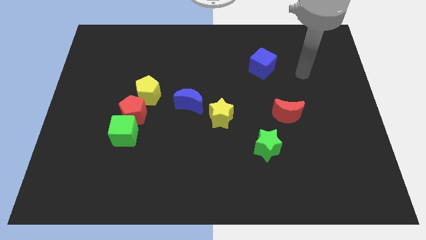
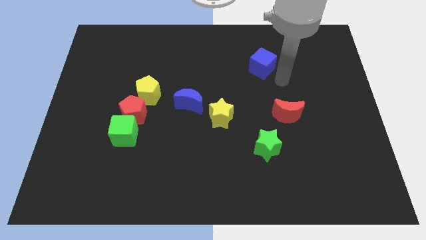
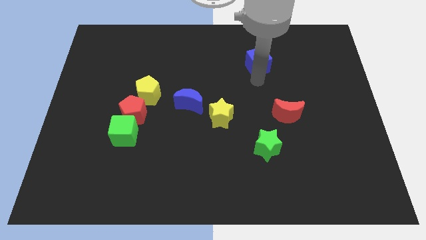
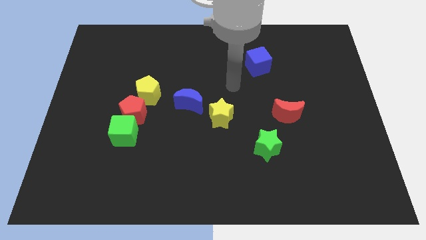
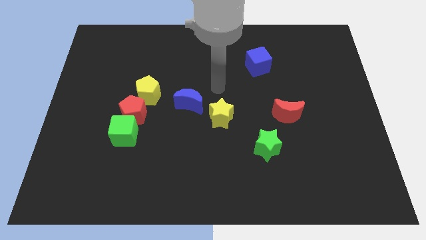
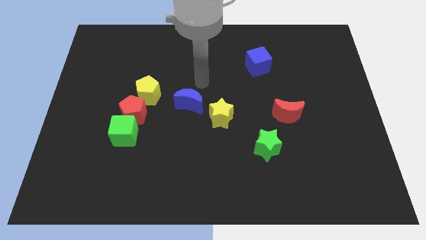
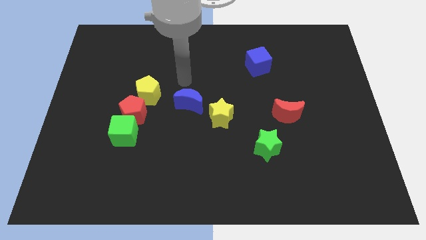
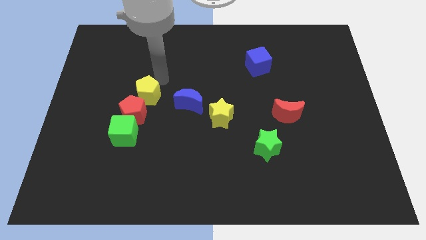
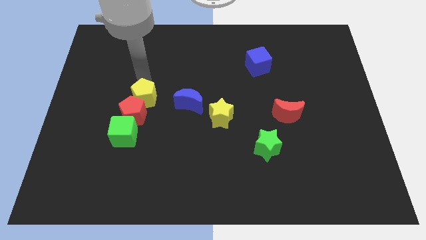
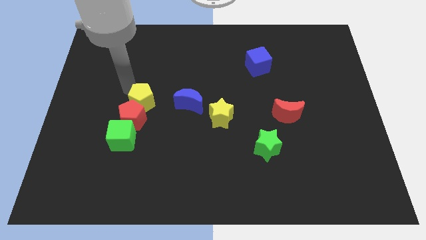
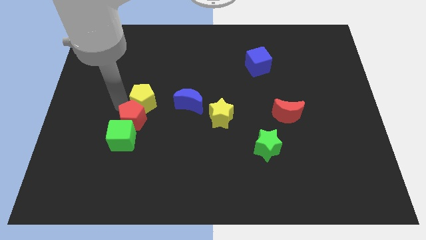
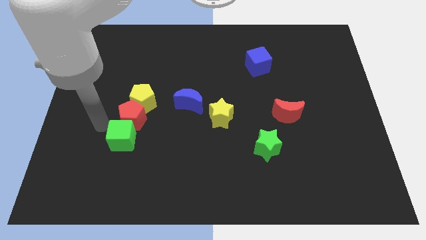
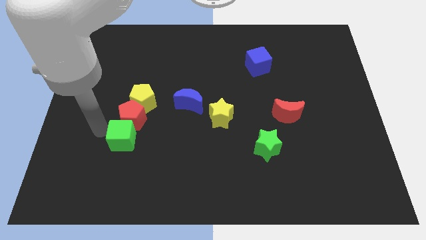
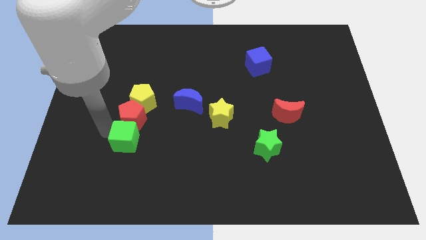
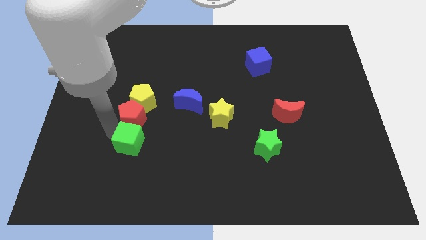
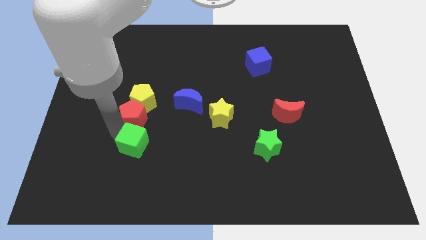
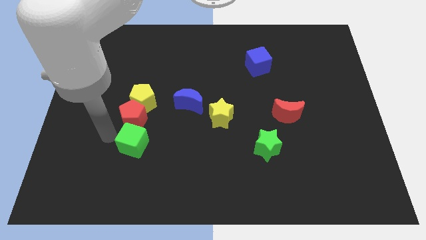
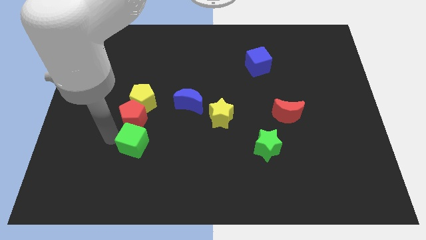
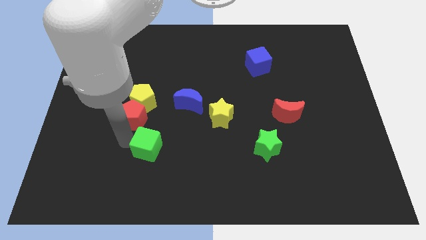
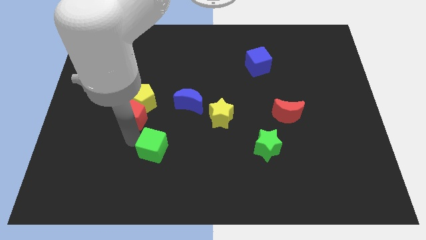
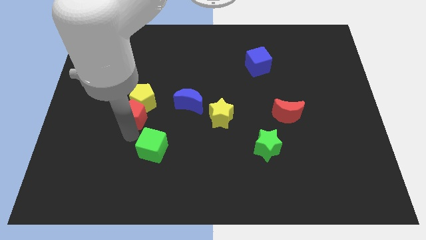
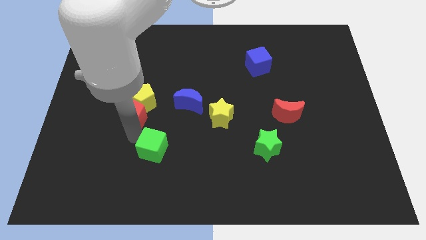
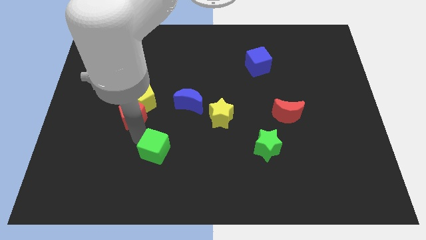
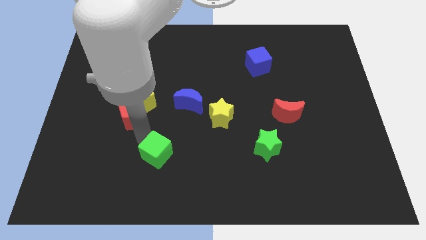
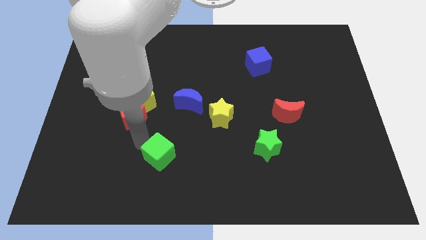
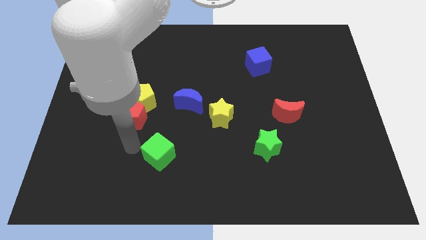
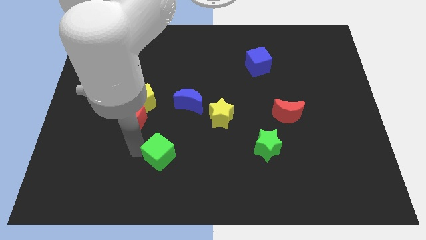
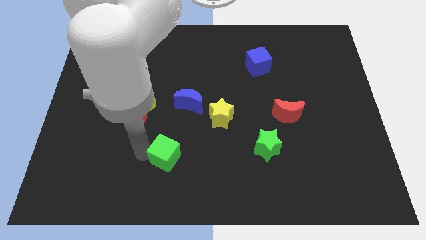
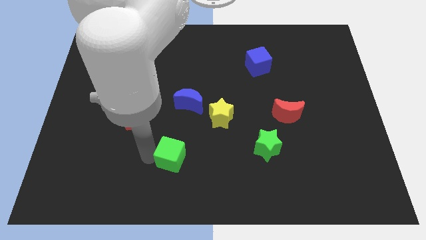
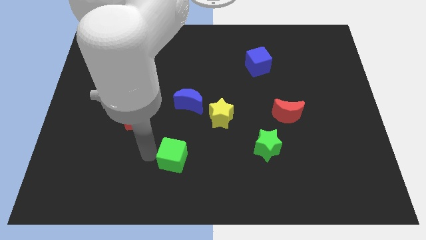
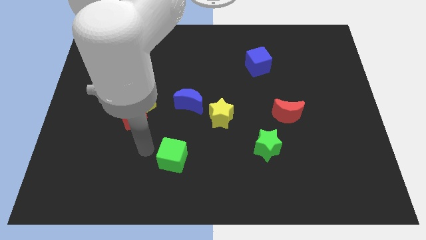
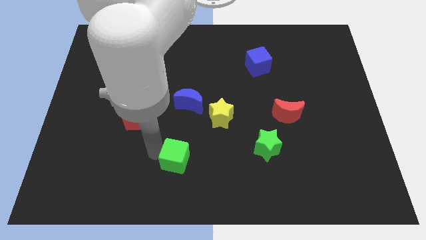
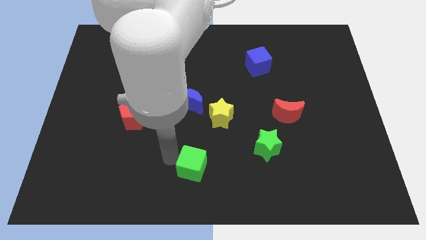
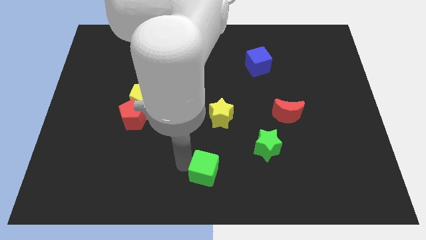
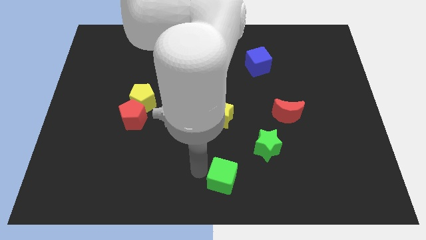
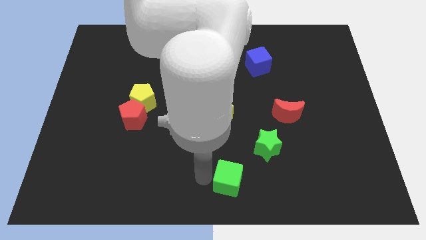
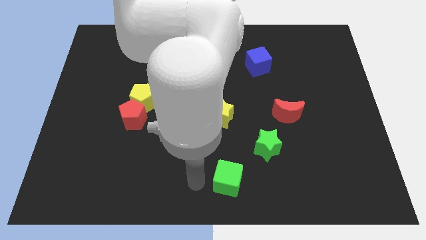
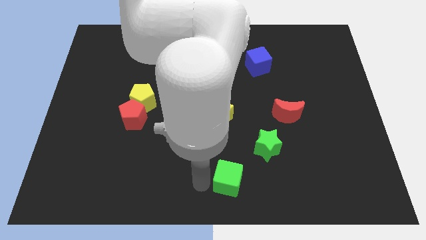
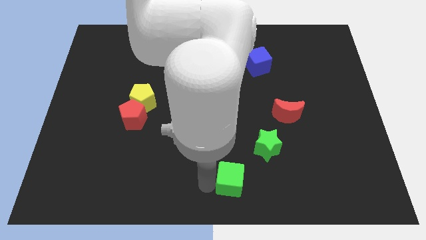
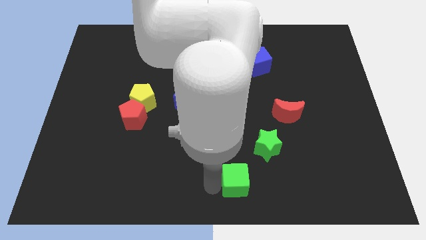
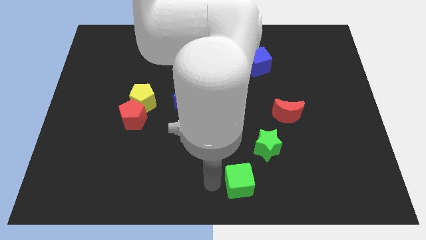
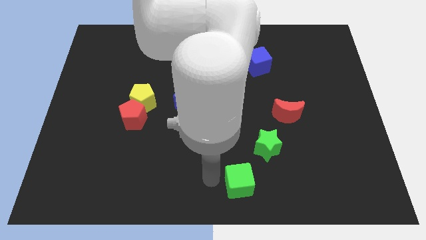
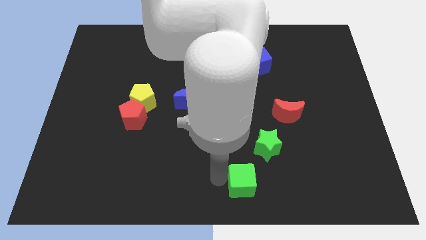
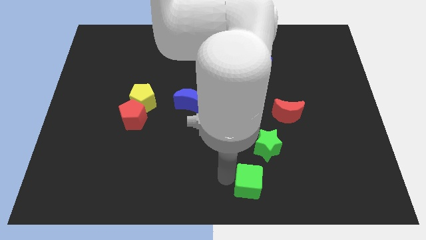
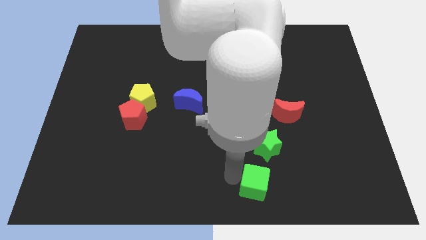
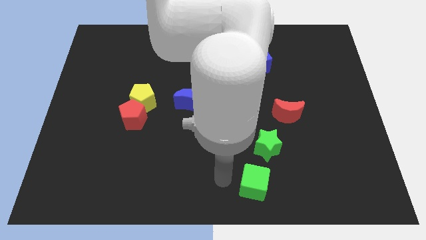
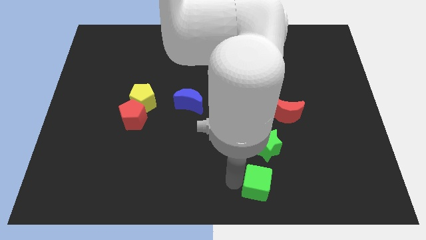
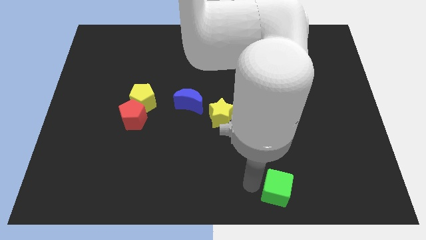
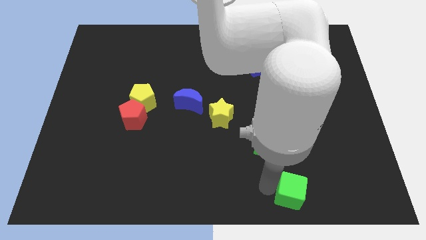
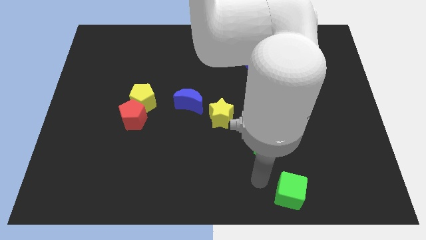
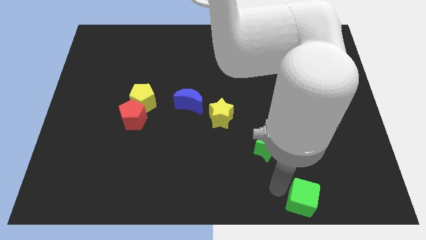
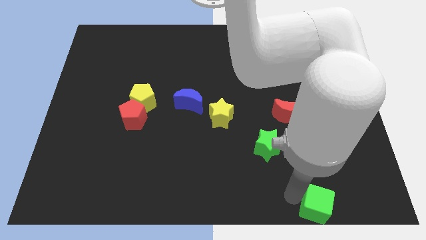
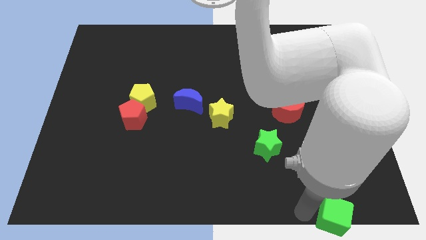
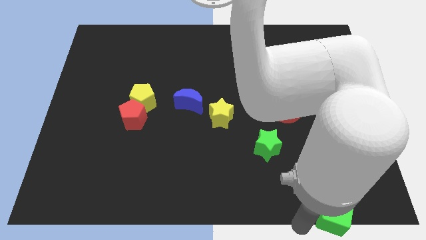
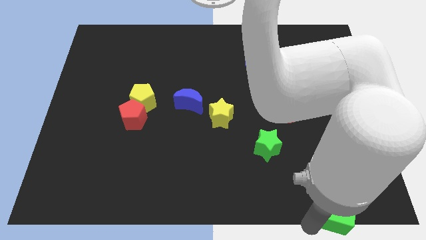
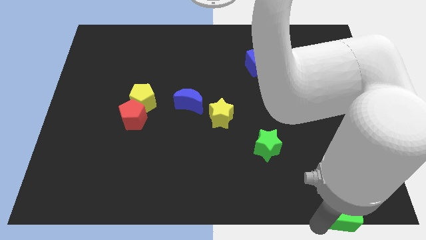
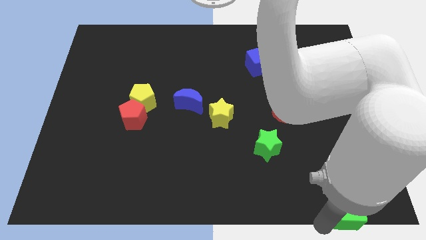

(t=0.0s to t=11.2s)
push the green cube to the bottom right of the board
